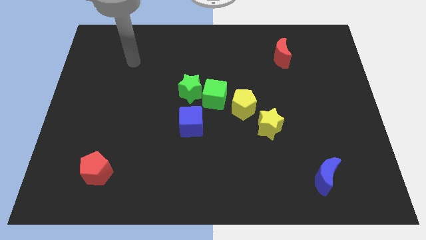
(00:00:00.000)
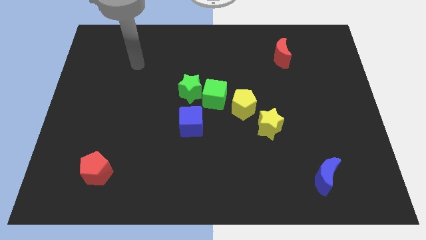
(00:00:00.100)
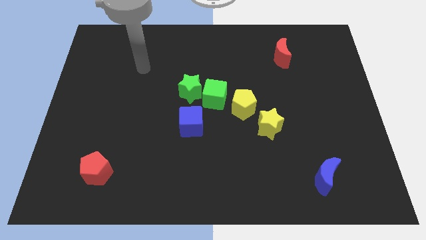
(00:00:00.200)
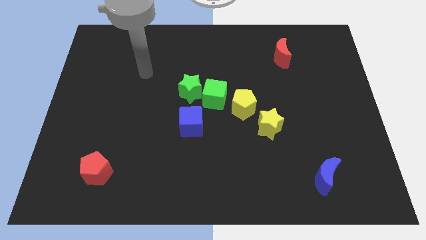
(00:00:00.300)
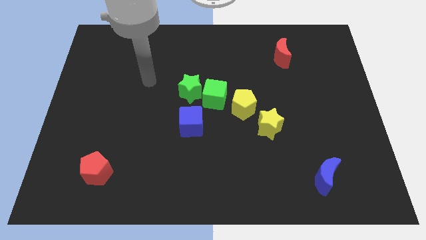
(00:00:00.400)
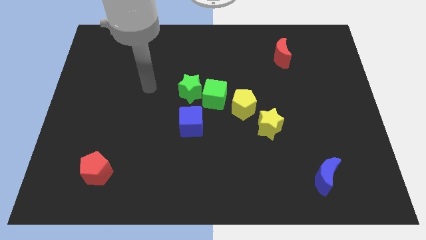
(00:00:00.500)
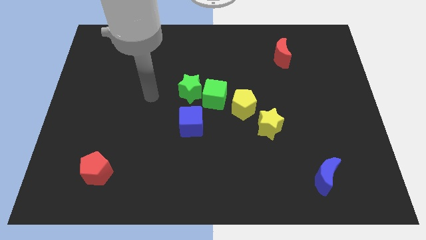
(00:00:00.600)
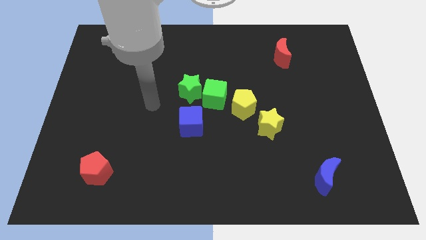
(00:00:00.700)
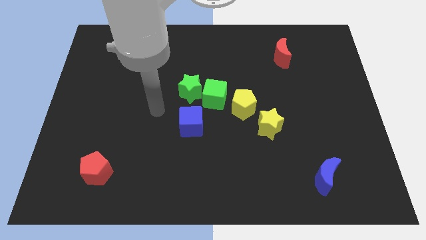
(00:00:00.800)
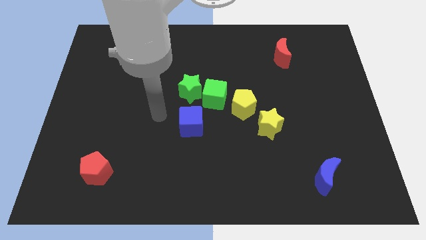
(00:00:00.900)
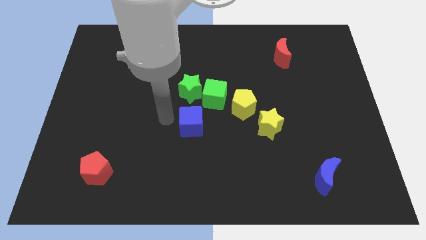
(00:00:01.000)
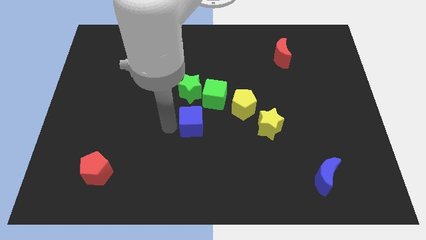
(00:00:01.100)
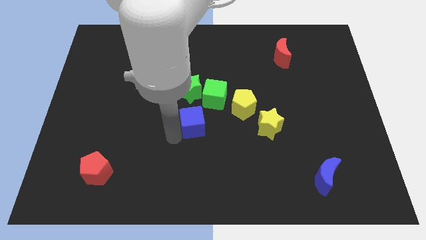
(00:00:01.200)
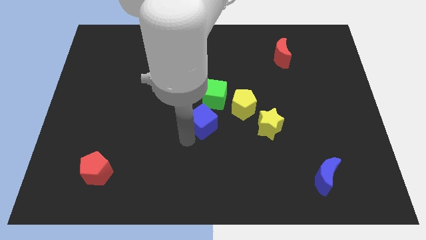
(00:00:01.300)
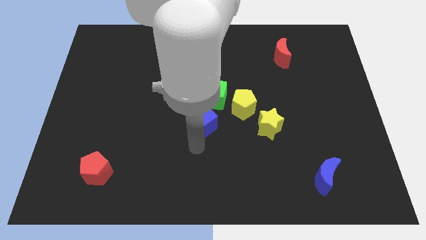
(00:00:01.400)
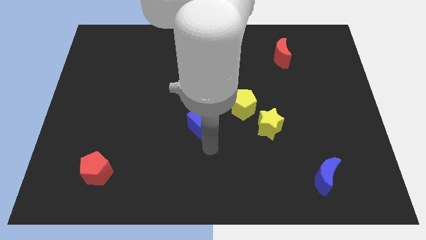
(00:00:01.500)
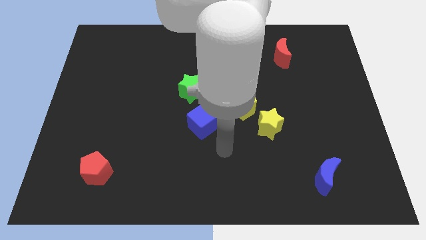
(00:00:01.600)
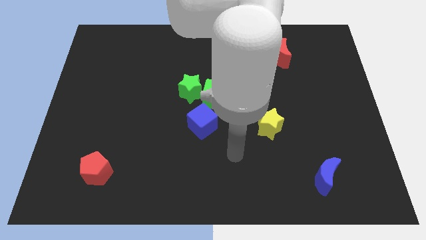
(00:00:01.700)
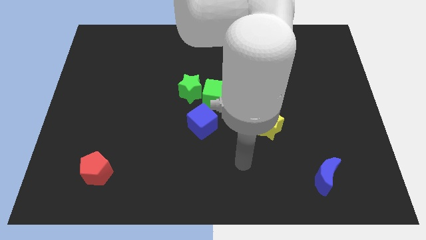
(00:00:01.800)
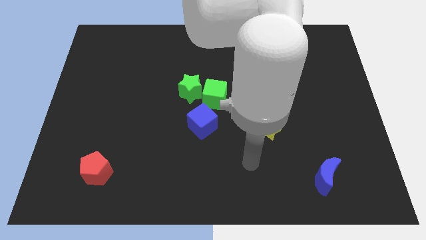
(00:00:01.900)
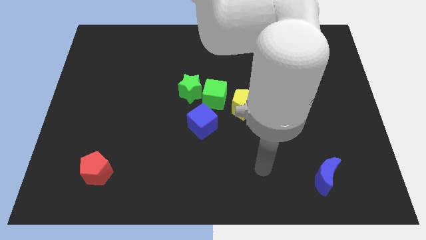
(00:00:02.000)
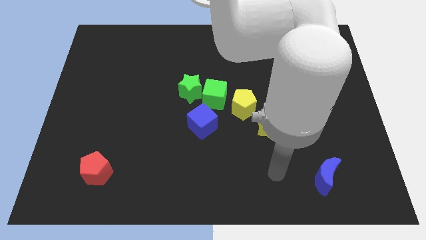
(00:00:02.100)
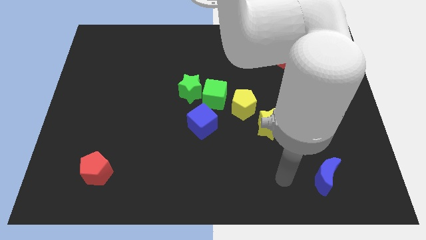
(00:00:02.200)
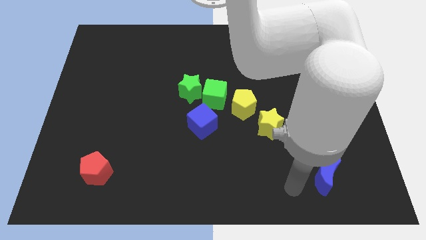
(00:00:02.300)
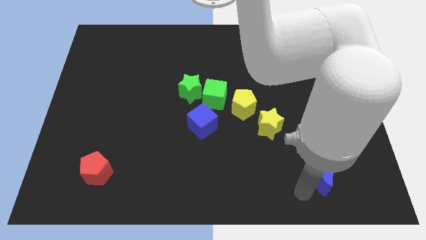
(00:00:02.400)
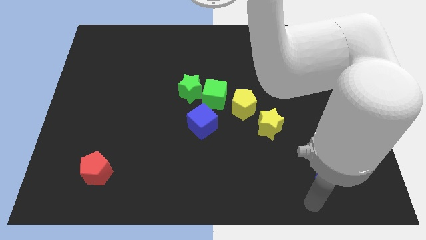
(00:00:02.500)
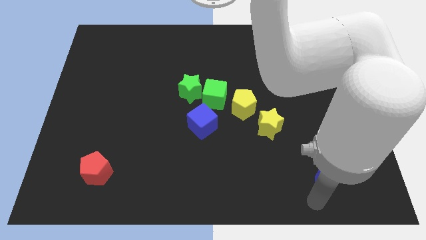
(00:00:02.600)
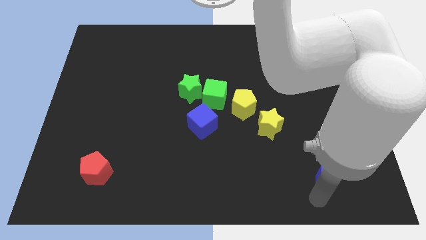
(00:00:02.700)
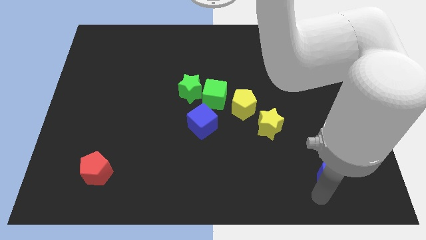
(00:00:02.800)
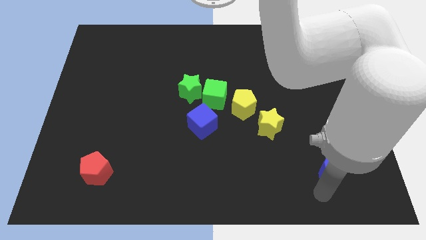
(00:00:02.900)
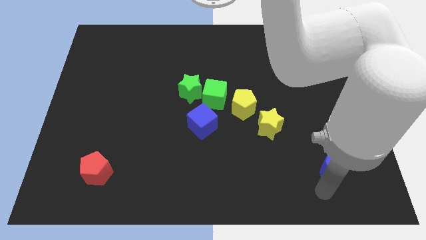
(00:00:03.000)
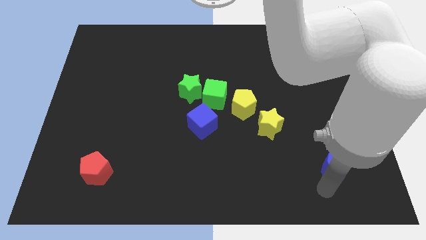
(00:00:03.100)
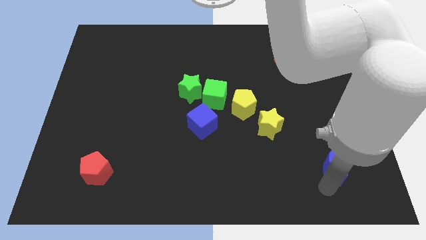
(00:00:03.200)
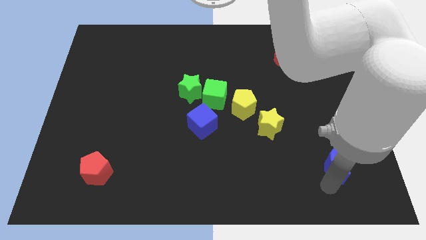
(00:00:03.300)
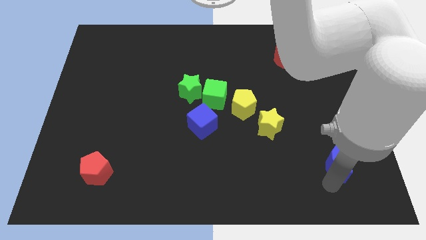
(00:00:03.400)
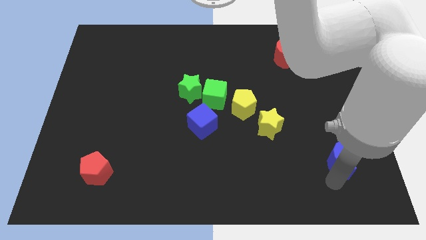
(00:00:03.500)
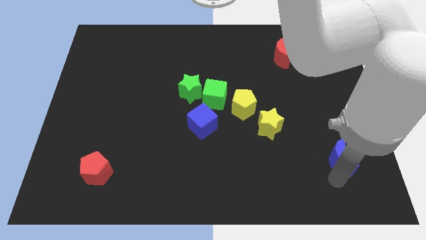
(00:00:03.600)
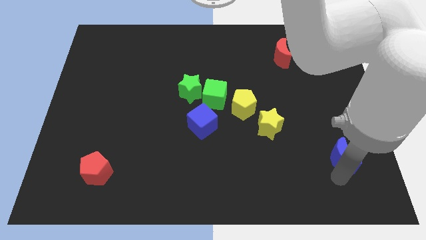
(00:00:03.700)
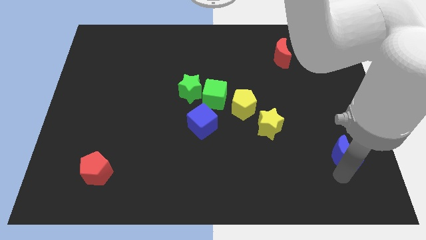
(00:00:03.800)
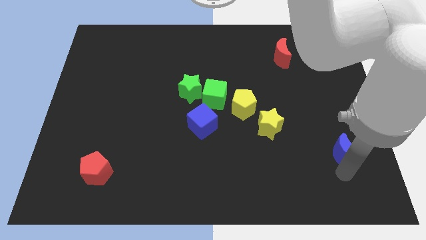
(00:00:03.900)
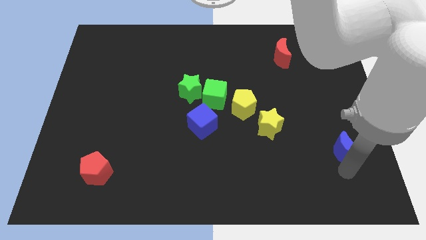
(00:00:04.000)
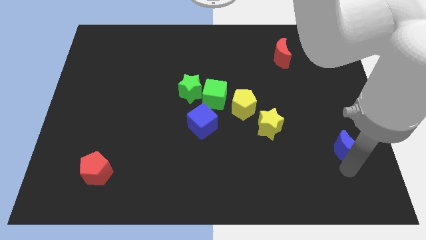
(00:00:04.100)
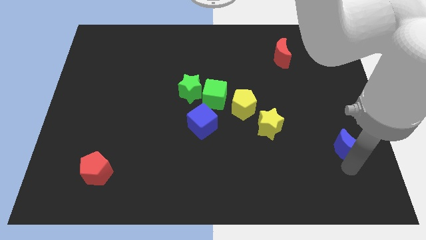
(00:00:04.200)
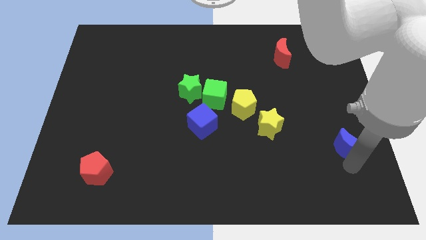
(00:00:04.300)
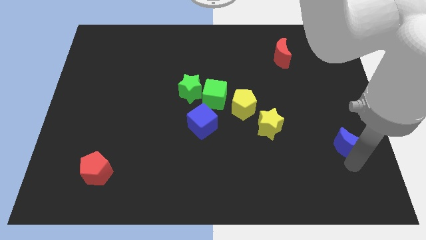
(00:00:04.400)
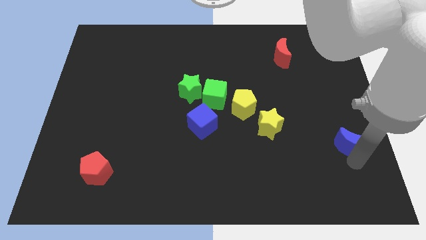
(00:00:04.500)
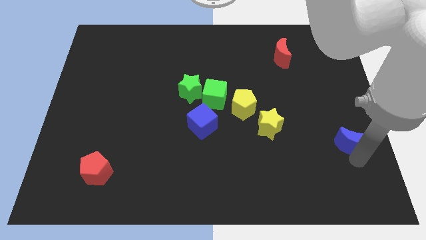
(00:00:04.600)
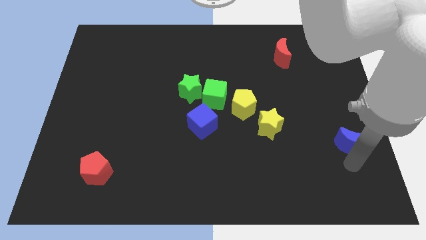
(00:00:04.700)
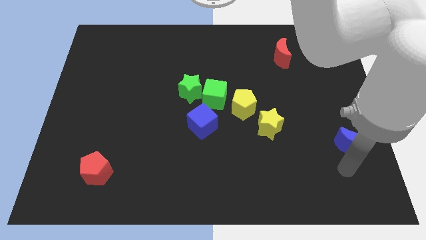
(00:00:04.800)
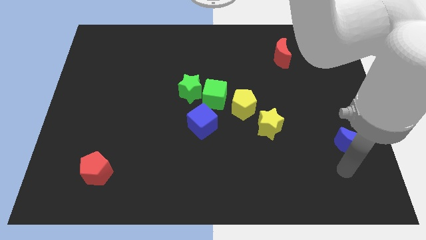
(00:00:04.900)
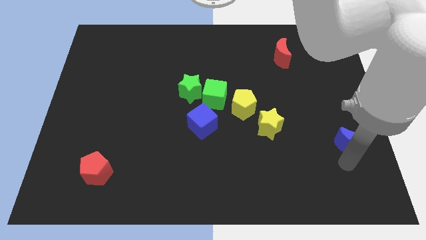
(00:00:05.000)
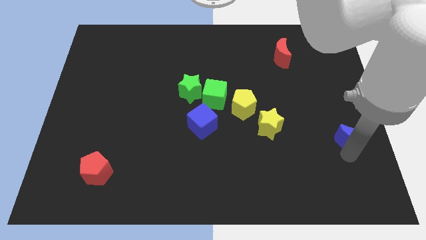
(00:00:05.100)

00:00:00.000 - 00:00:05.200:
push the blue moon to the right side
